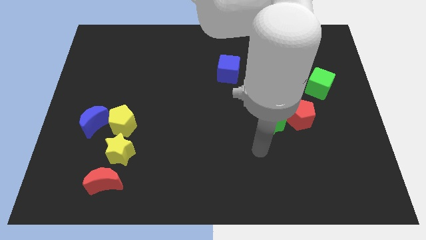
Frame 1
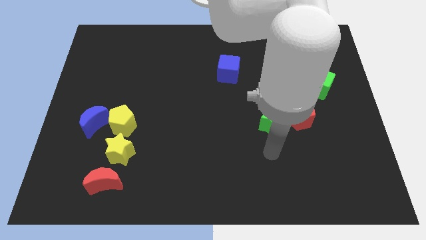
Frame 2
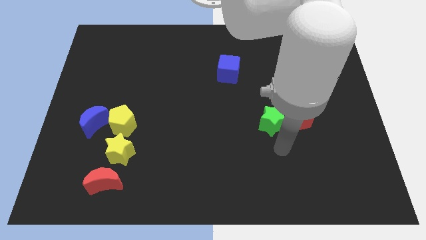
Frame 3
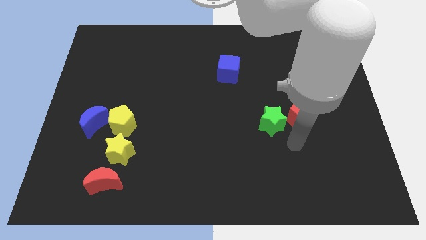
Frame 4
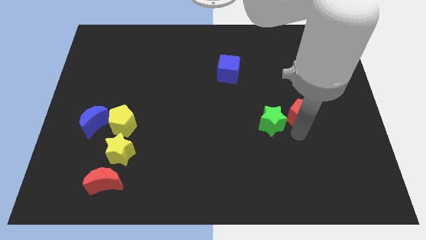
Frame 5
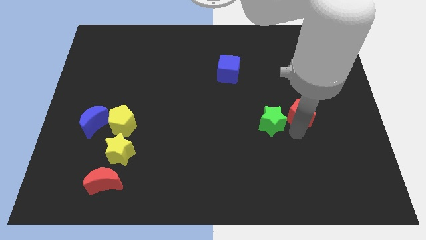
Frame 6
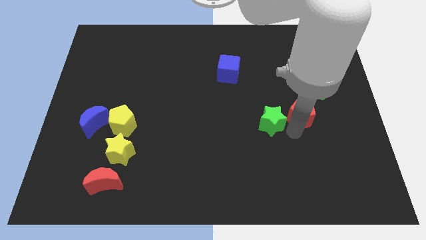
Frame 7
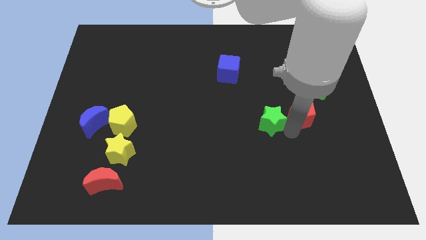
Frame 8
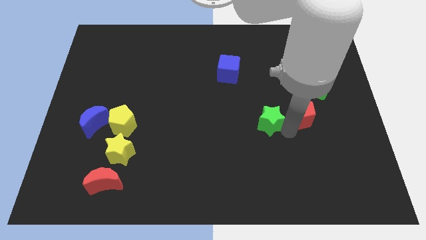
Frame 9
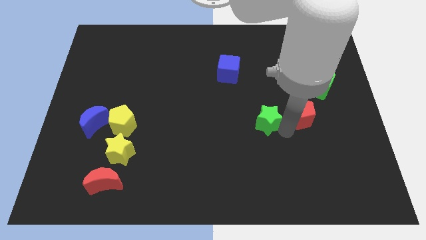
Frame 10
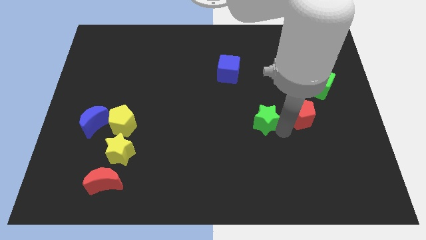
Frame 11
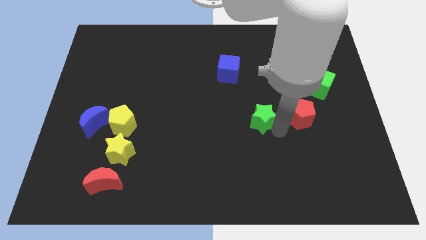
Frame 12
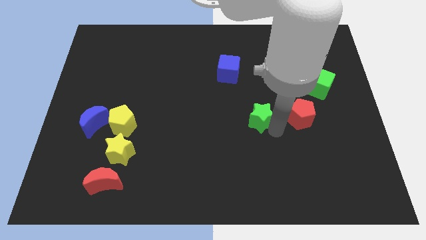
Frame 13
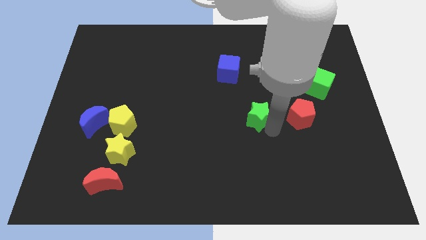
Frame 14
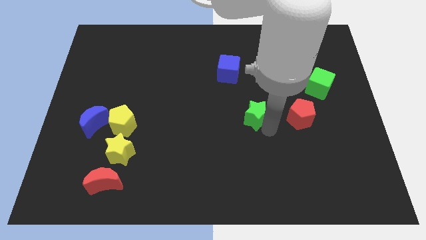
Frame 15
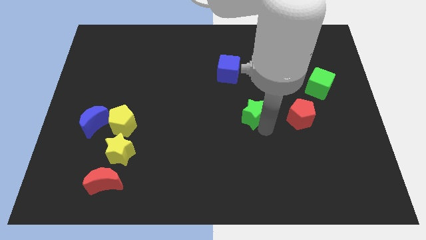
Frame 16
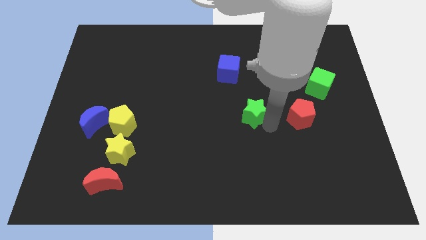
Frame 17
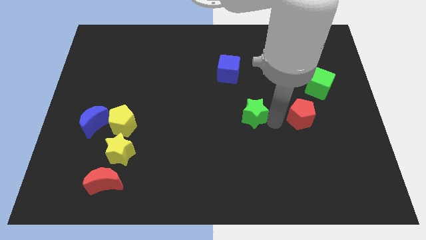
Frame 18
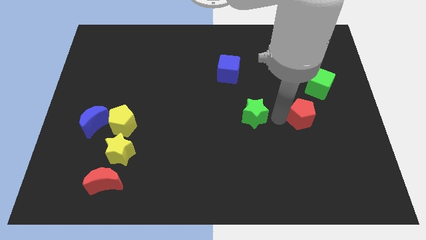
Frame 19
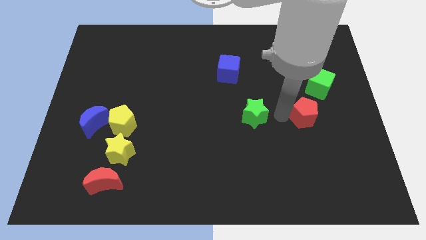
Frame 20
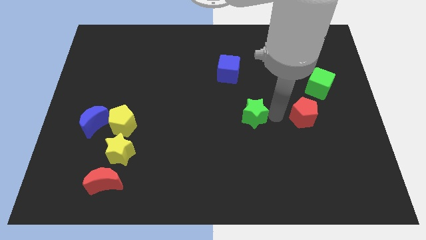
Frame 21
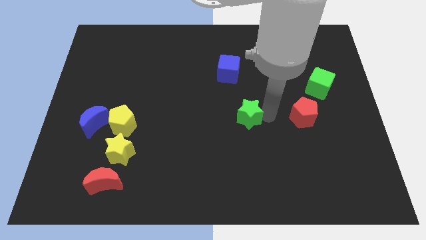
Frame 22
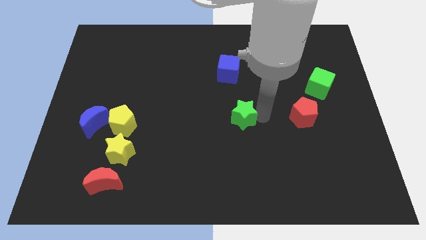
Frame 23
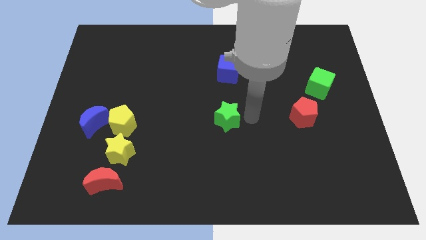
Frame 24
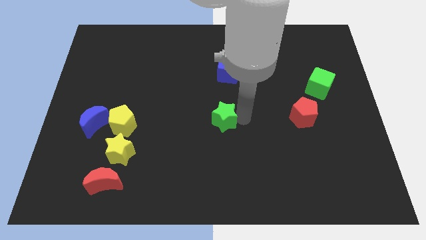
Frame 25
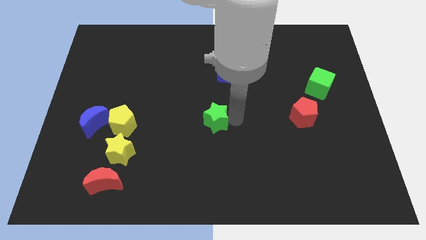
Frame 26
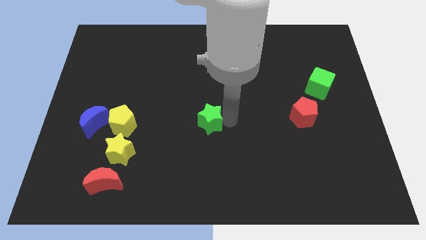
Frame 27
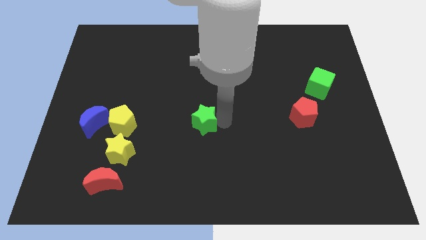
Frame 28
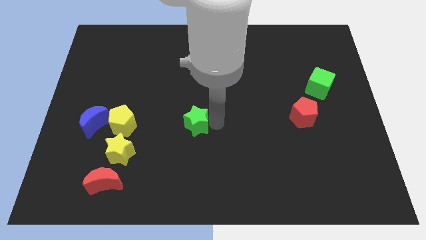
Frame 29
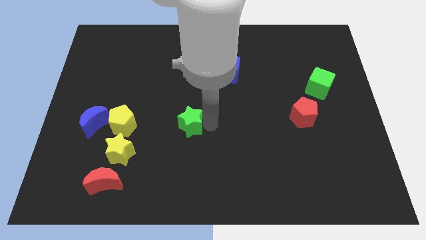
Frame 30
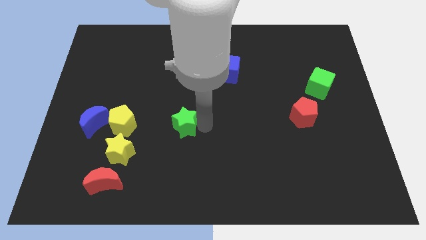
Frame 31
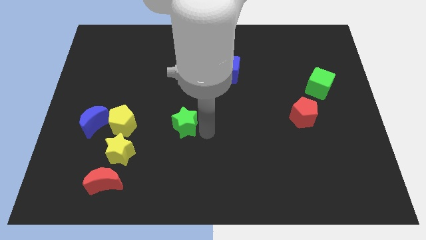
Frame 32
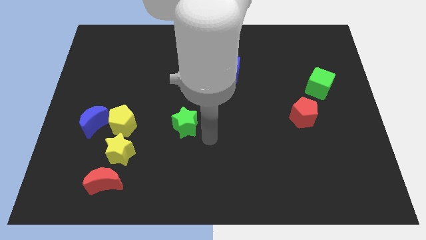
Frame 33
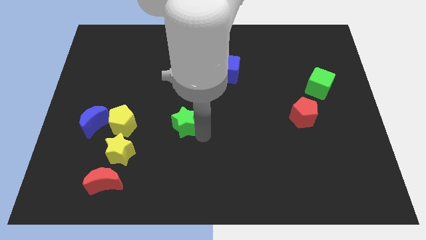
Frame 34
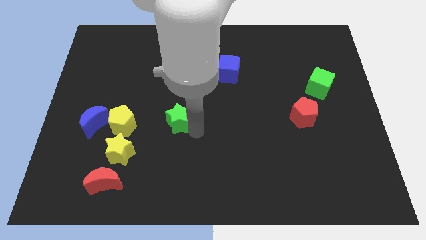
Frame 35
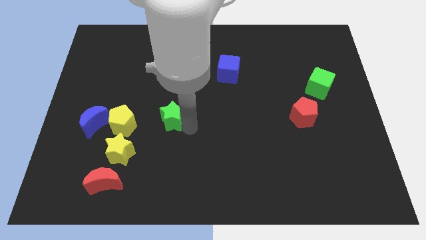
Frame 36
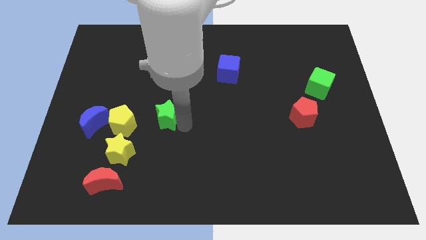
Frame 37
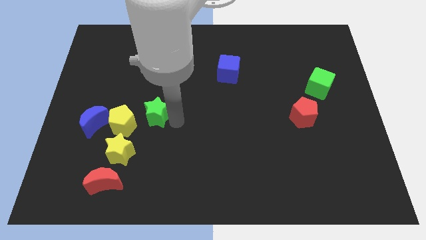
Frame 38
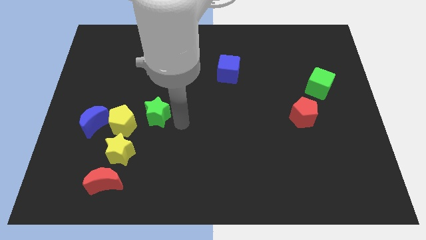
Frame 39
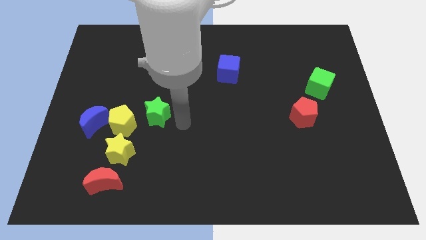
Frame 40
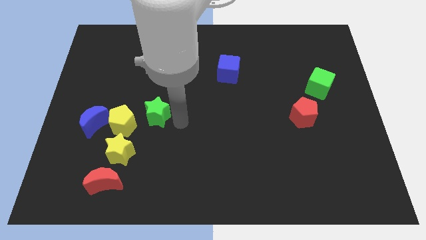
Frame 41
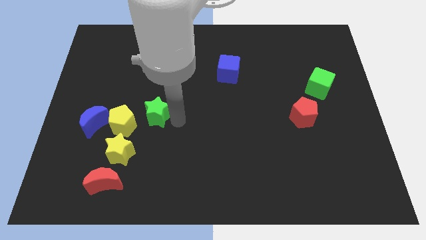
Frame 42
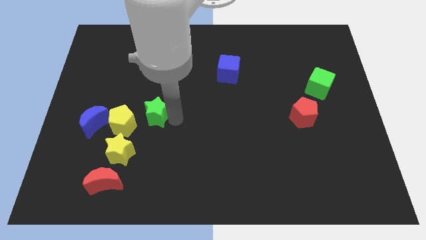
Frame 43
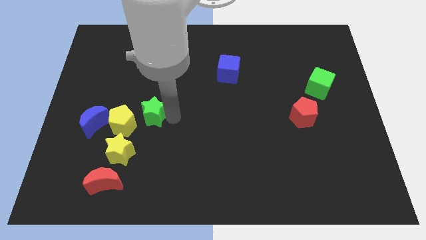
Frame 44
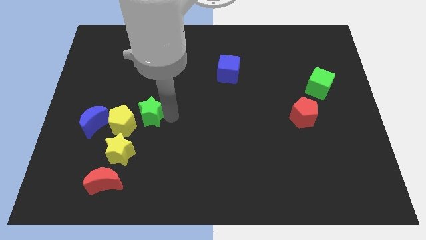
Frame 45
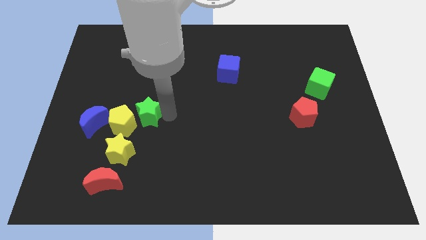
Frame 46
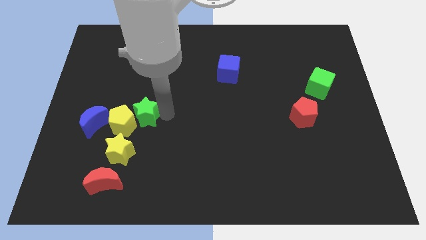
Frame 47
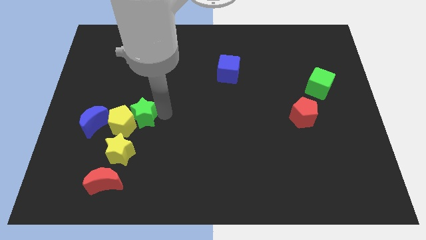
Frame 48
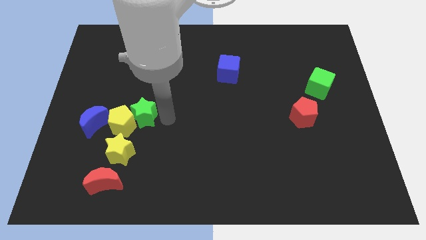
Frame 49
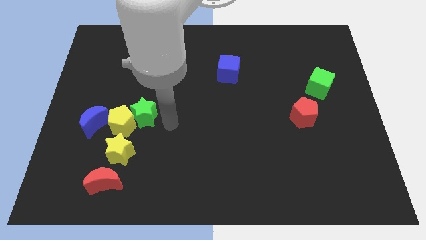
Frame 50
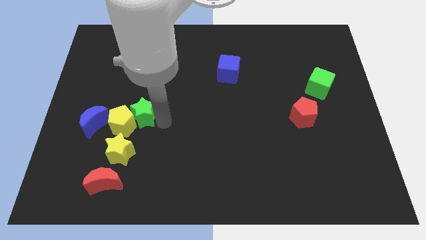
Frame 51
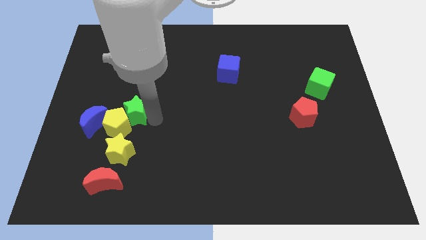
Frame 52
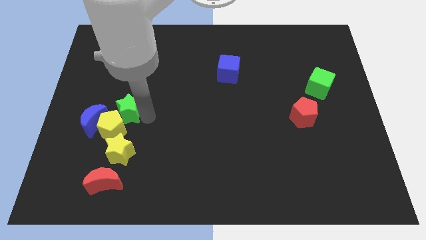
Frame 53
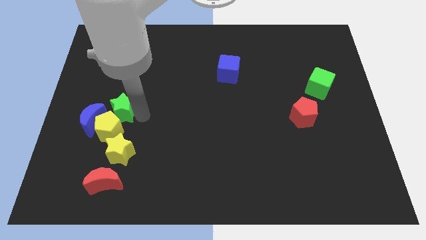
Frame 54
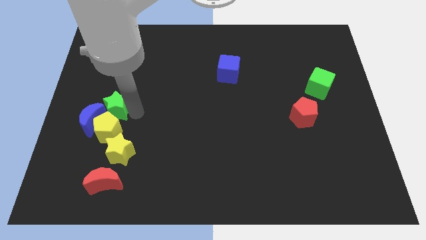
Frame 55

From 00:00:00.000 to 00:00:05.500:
push the green star to the blue moon

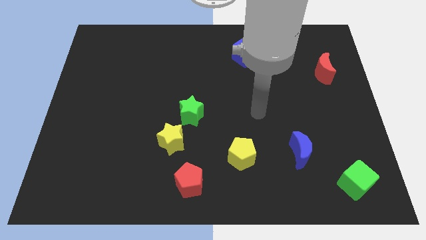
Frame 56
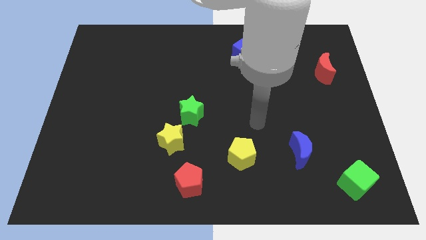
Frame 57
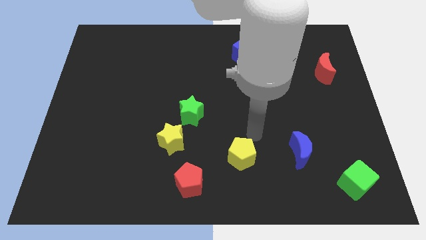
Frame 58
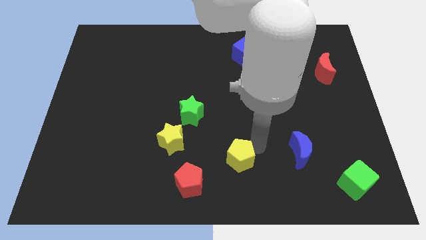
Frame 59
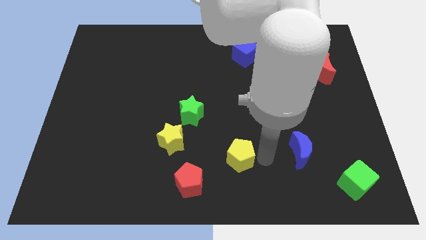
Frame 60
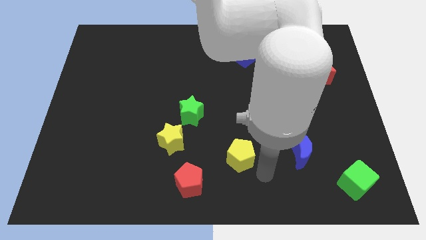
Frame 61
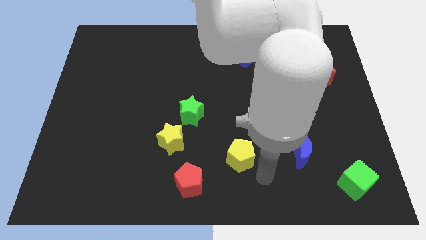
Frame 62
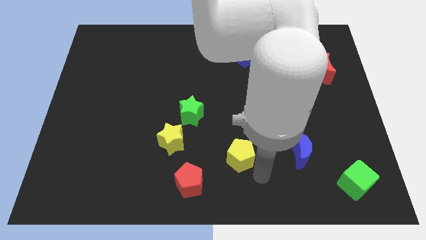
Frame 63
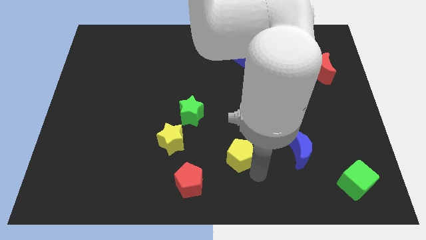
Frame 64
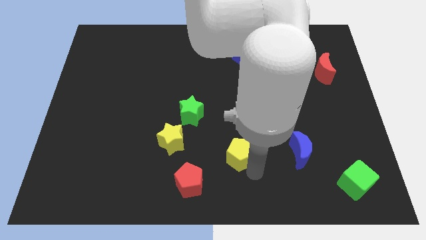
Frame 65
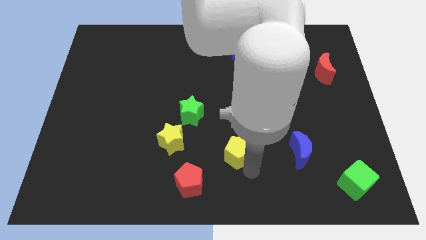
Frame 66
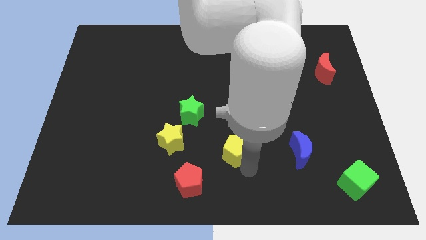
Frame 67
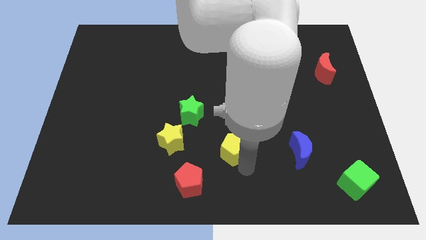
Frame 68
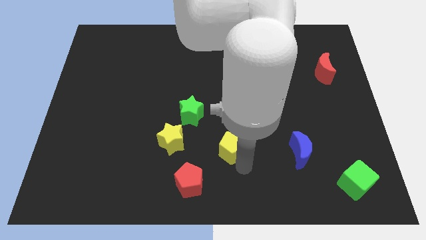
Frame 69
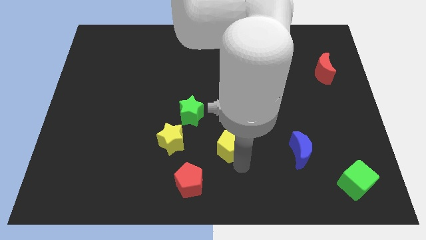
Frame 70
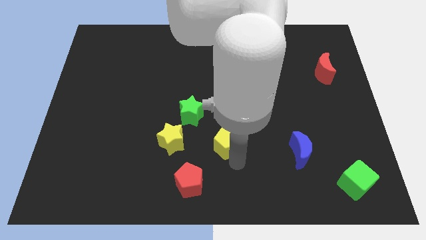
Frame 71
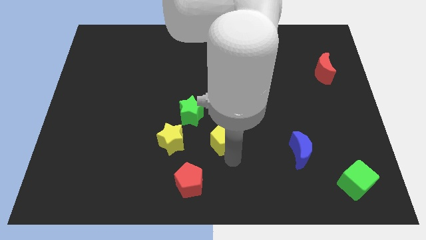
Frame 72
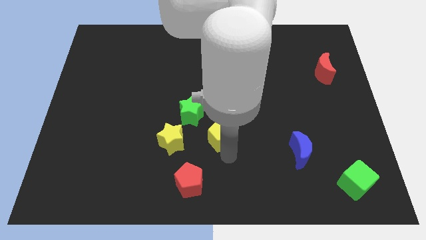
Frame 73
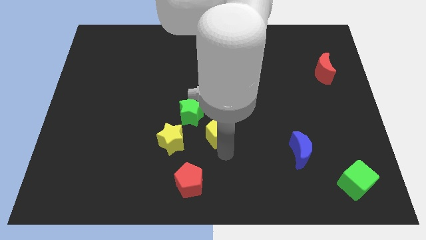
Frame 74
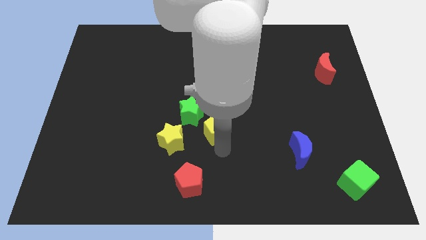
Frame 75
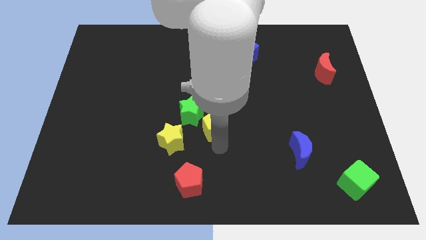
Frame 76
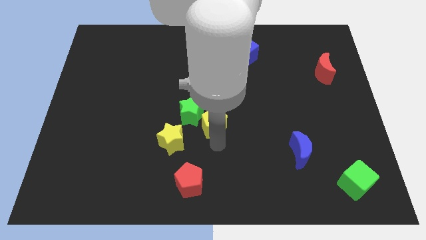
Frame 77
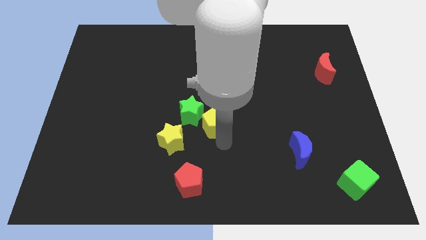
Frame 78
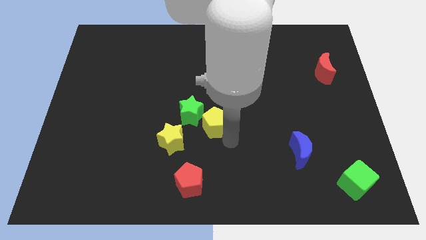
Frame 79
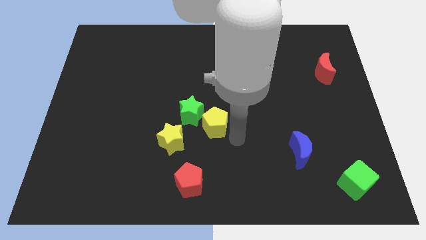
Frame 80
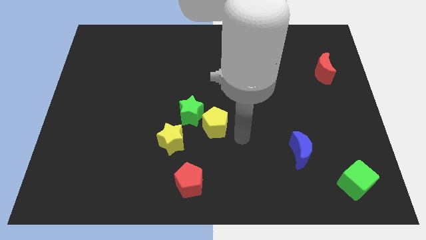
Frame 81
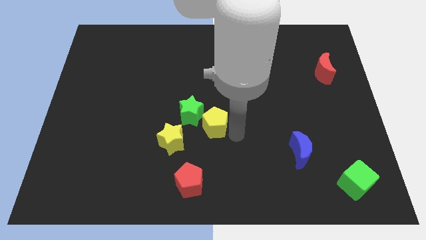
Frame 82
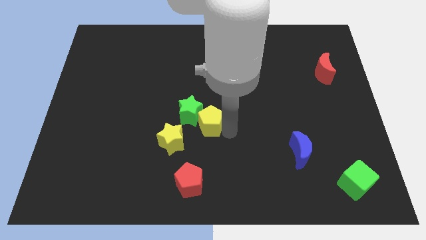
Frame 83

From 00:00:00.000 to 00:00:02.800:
put the yellow pentagon close to the green star
